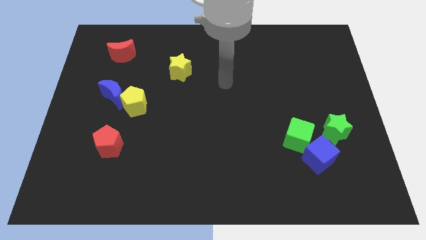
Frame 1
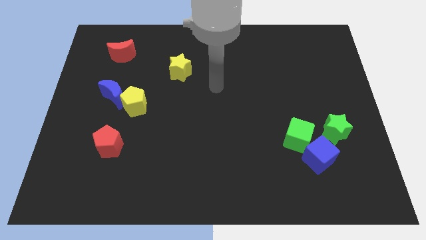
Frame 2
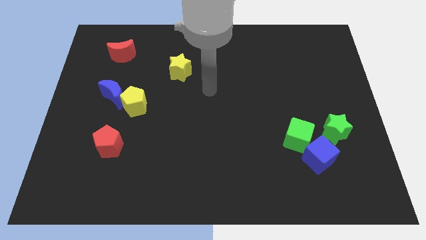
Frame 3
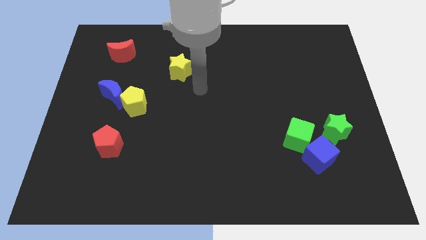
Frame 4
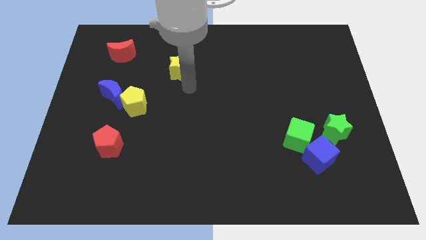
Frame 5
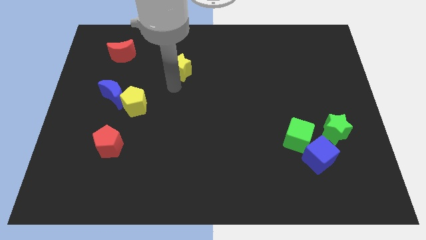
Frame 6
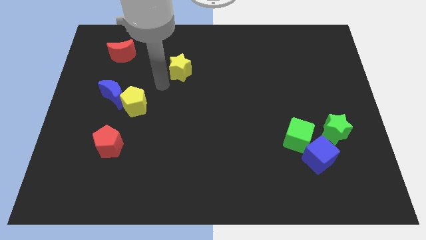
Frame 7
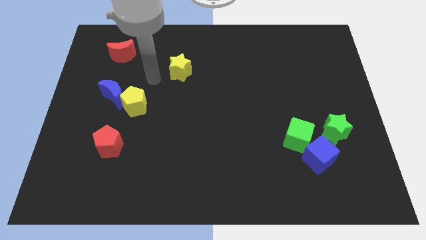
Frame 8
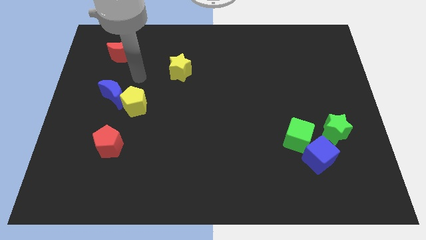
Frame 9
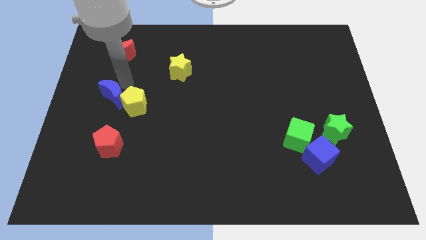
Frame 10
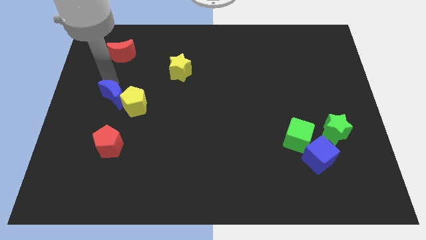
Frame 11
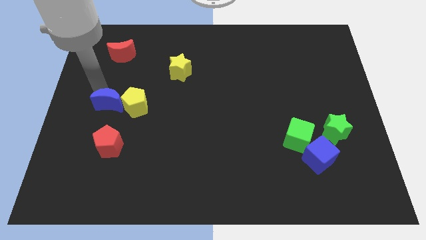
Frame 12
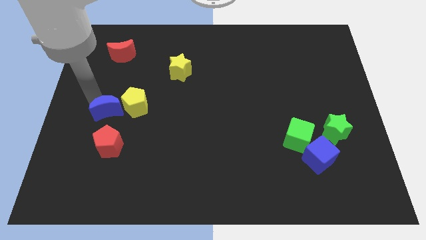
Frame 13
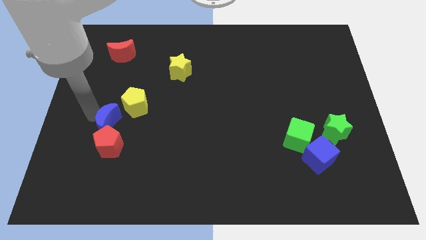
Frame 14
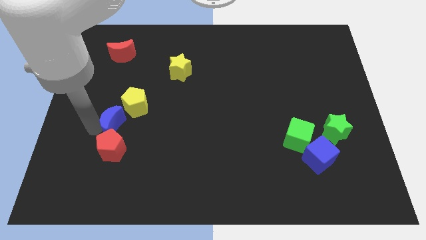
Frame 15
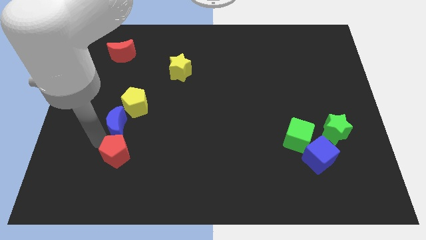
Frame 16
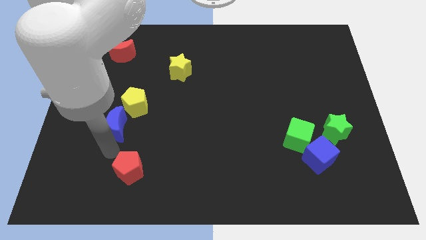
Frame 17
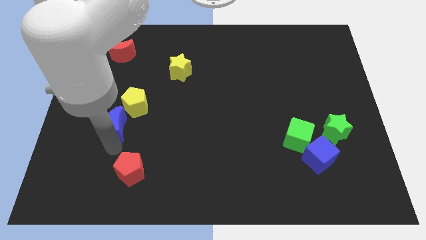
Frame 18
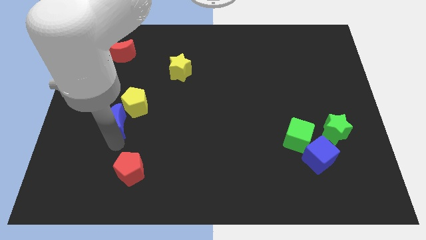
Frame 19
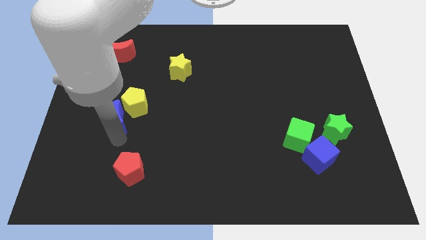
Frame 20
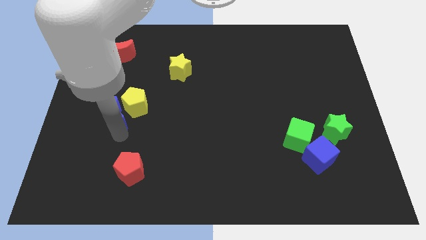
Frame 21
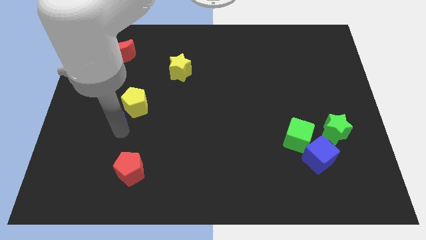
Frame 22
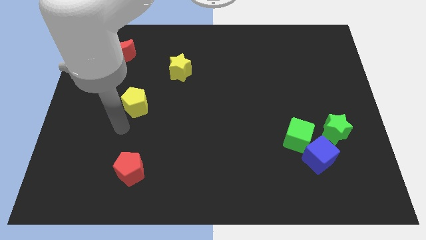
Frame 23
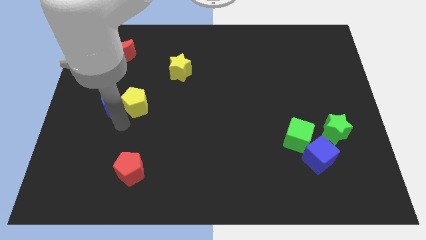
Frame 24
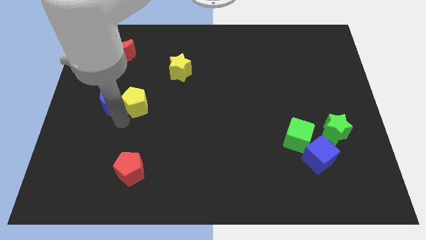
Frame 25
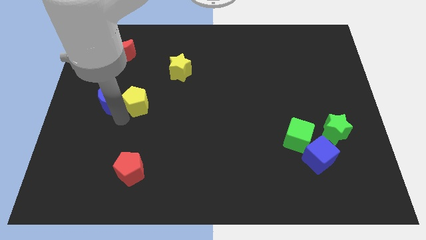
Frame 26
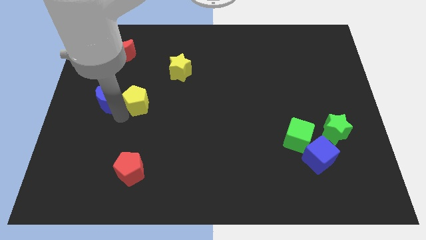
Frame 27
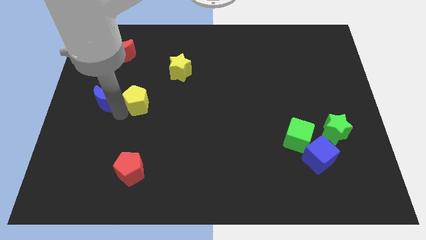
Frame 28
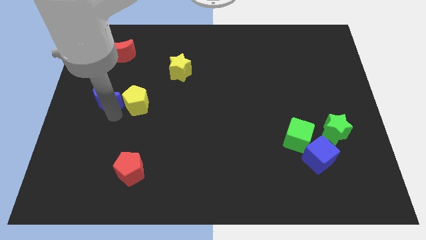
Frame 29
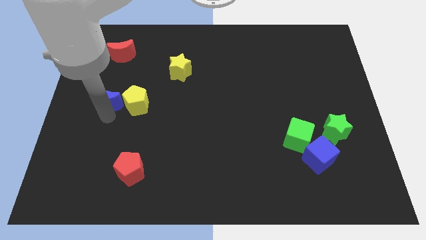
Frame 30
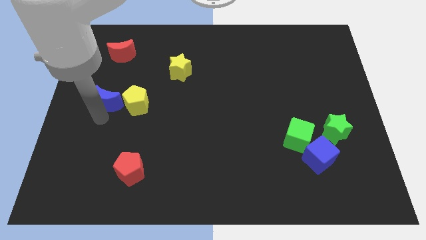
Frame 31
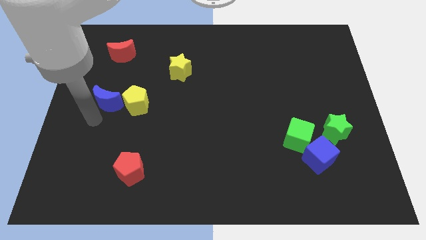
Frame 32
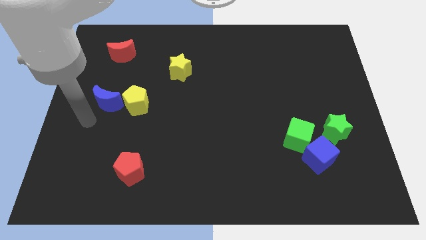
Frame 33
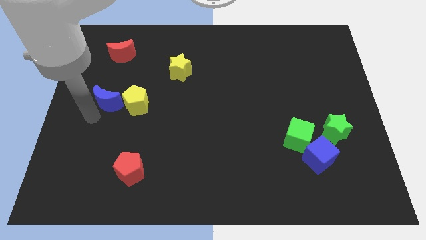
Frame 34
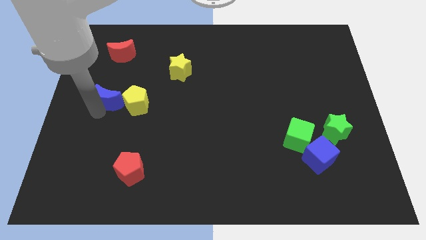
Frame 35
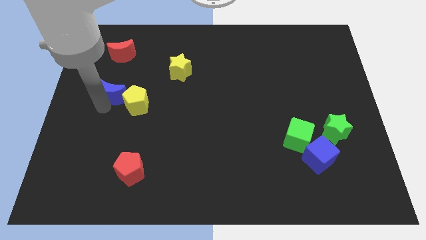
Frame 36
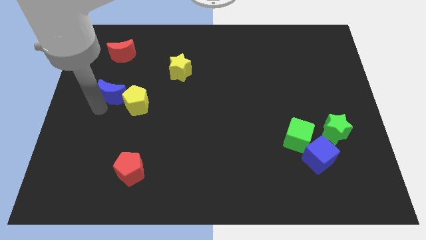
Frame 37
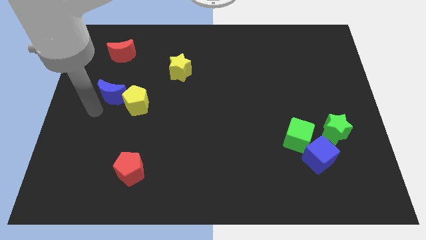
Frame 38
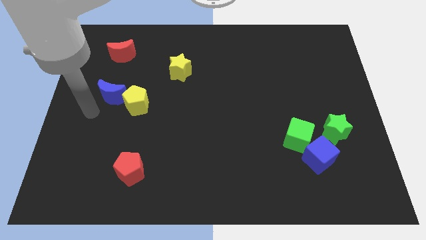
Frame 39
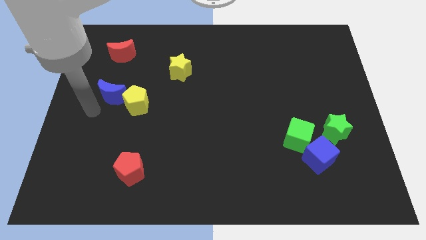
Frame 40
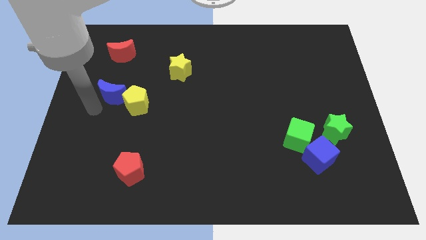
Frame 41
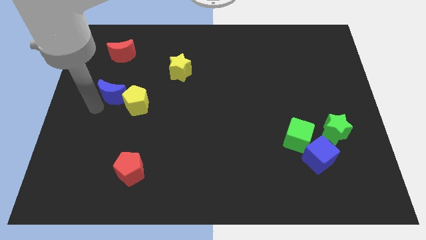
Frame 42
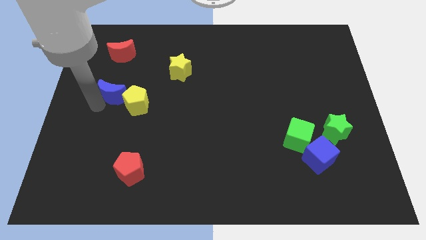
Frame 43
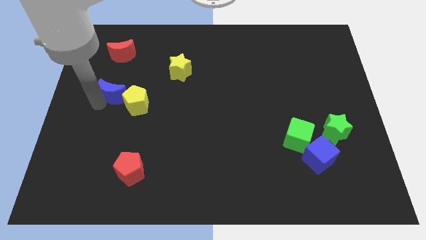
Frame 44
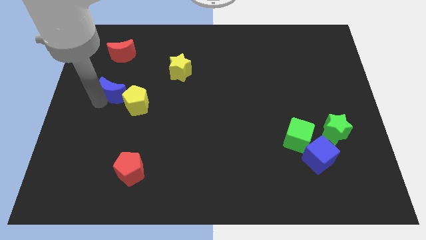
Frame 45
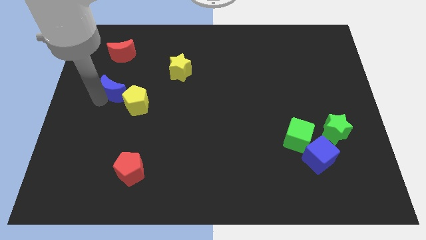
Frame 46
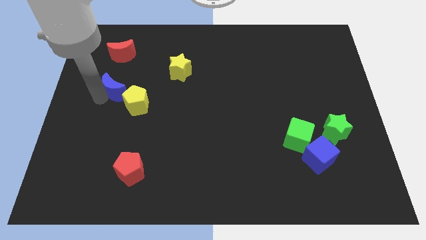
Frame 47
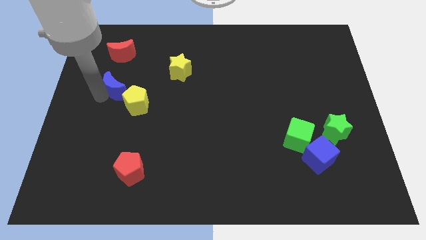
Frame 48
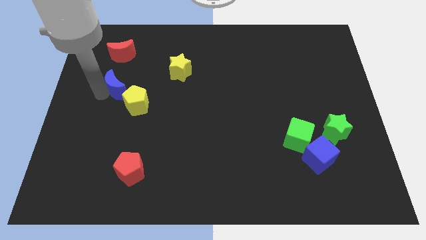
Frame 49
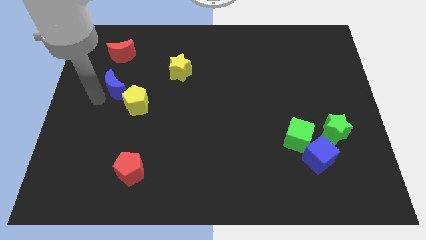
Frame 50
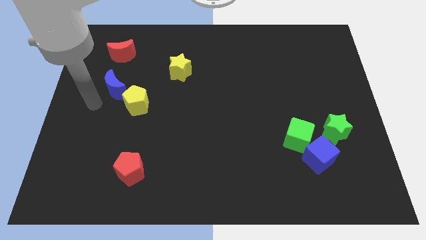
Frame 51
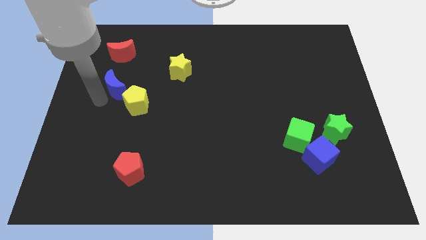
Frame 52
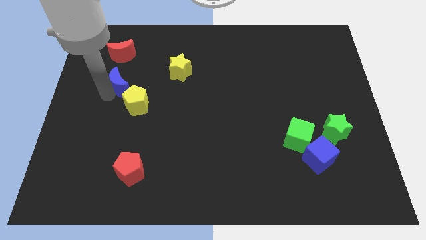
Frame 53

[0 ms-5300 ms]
move the blue moon above the yellow pentagon

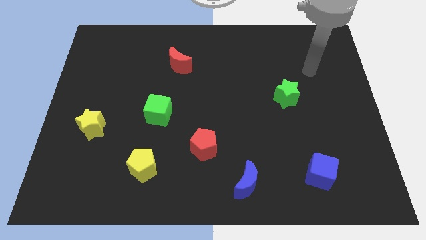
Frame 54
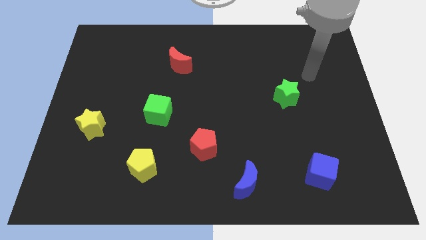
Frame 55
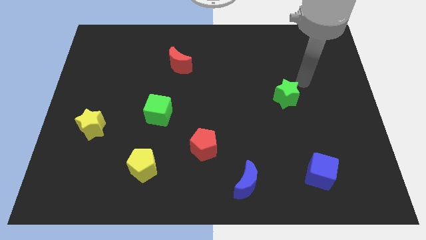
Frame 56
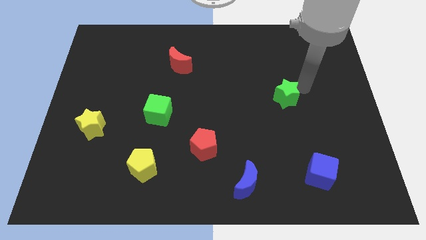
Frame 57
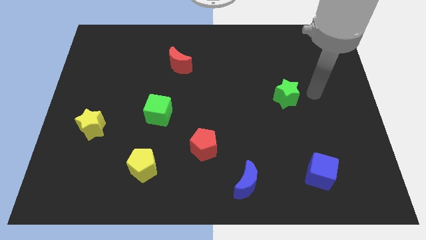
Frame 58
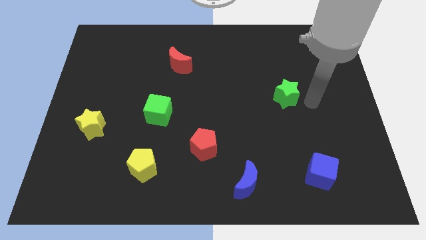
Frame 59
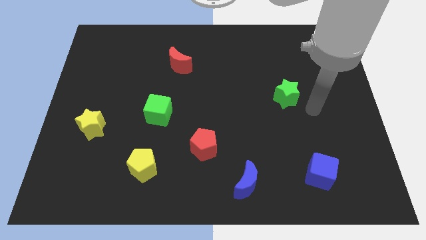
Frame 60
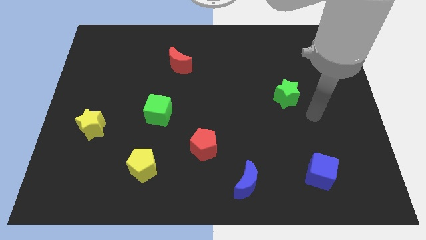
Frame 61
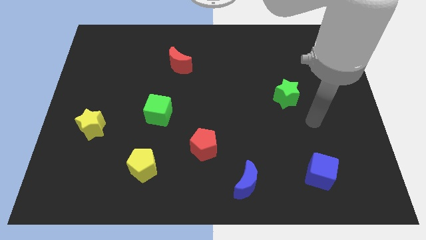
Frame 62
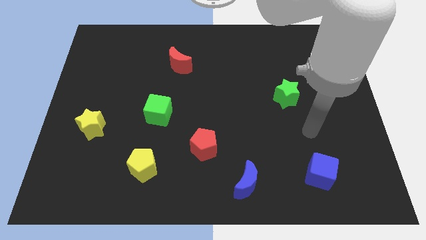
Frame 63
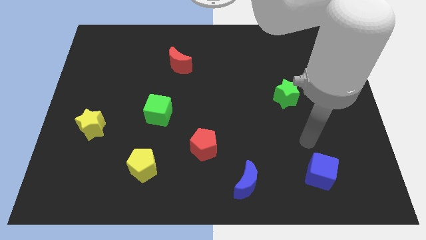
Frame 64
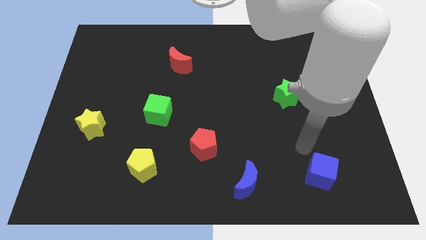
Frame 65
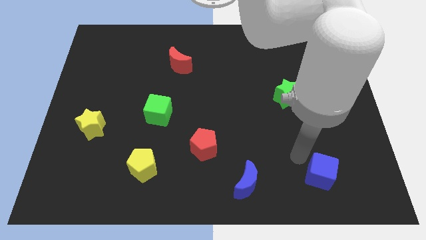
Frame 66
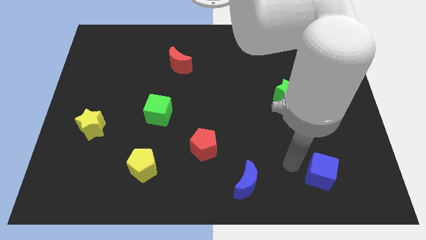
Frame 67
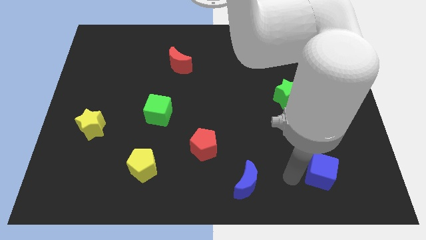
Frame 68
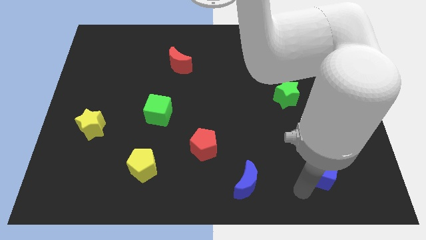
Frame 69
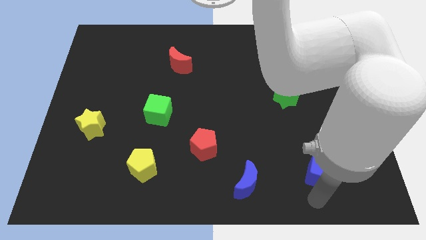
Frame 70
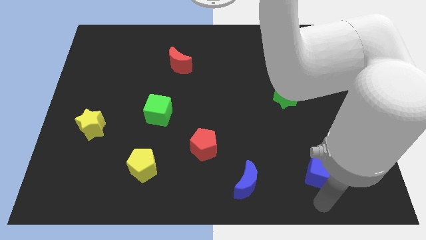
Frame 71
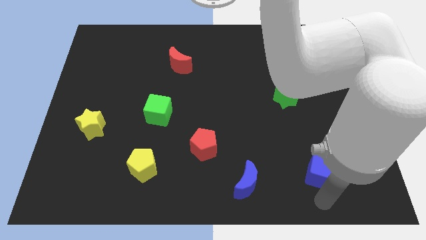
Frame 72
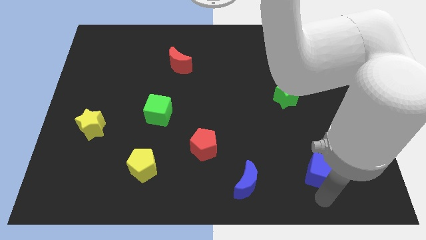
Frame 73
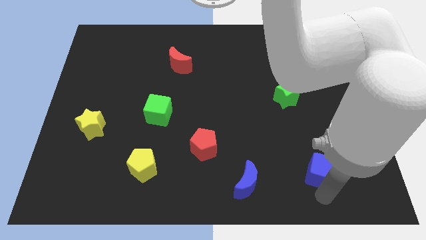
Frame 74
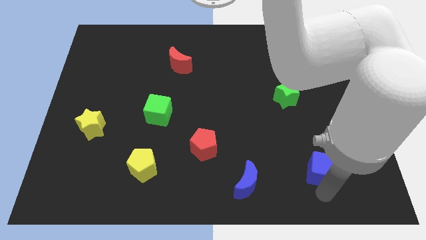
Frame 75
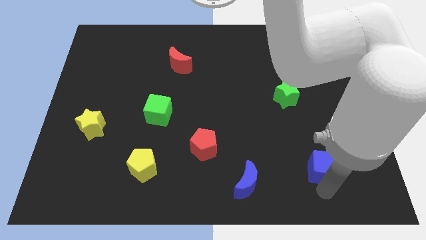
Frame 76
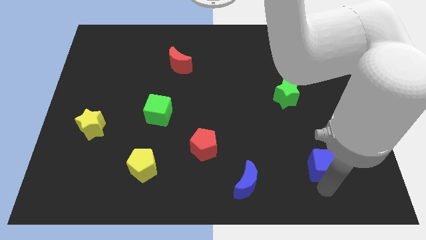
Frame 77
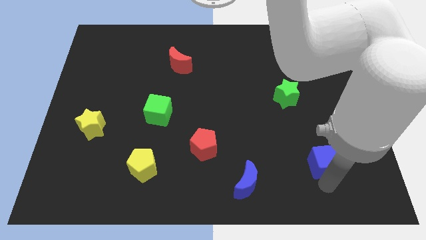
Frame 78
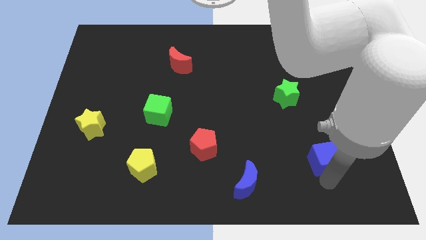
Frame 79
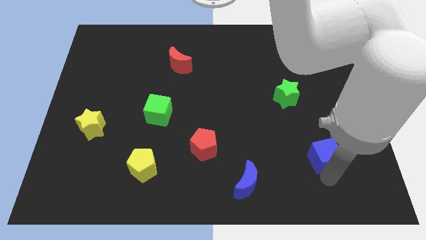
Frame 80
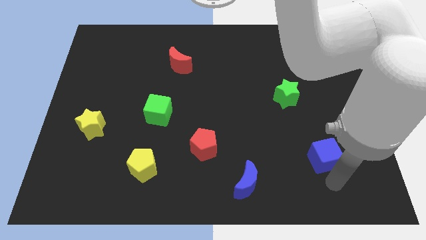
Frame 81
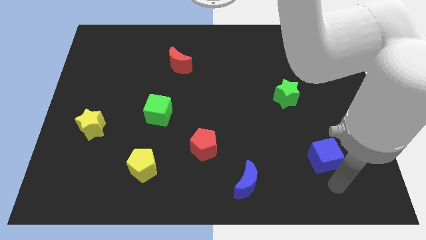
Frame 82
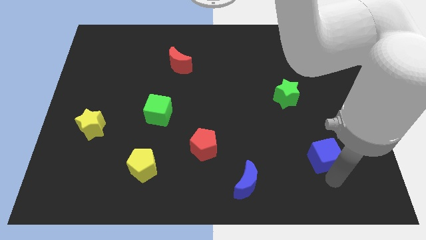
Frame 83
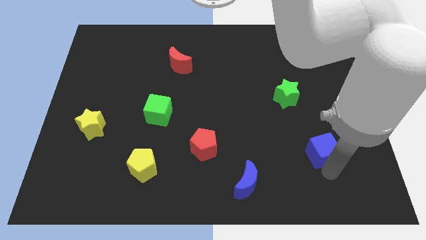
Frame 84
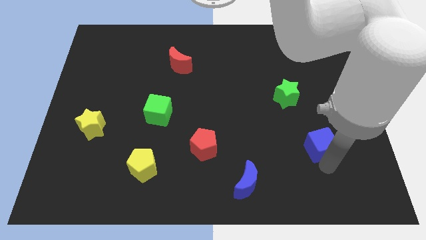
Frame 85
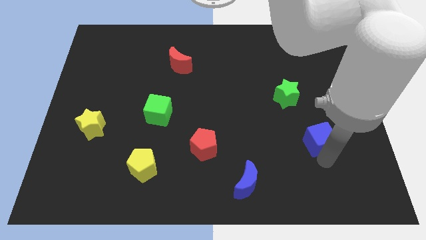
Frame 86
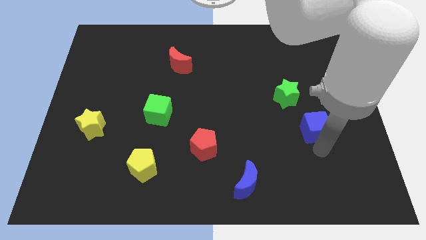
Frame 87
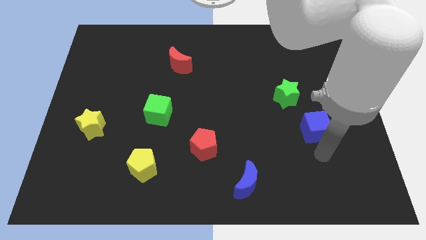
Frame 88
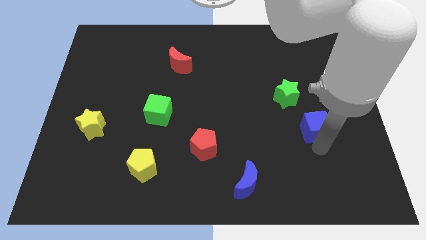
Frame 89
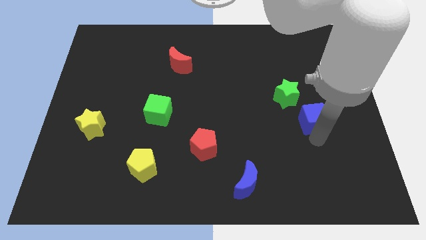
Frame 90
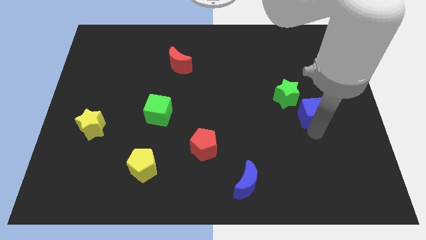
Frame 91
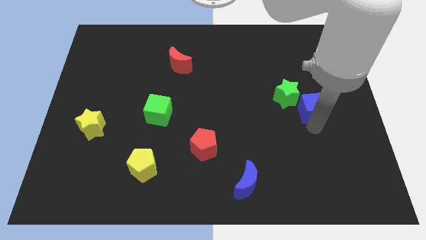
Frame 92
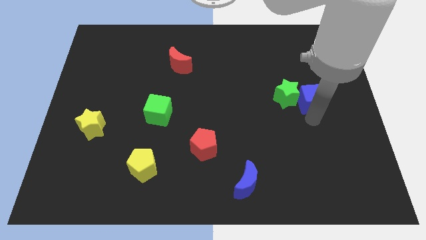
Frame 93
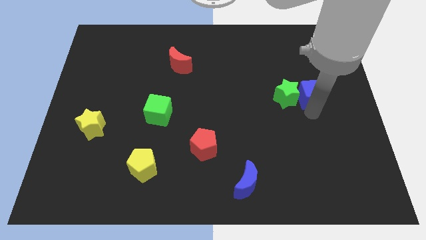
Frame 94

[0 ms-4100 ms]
move the blue cube to the top right side of the green star
